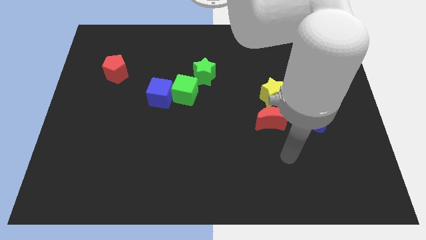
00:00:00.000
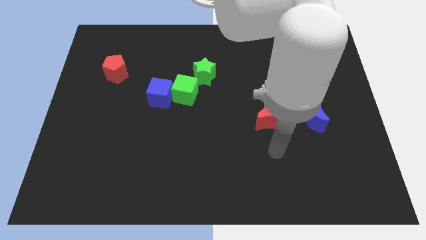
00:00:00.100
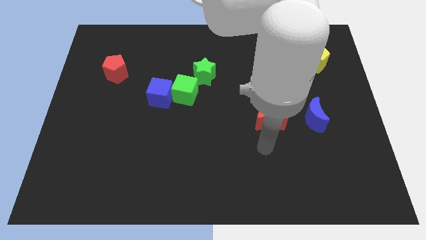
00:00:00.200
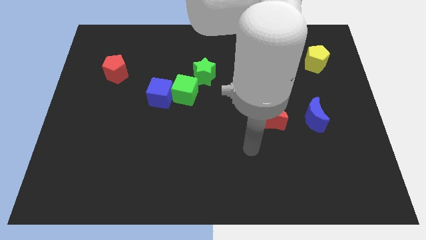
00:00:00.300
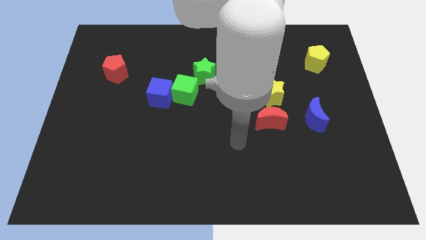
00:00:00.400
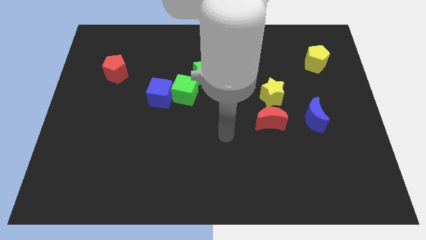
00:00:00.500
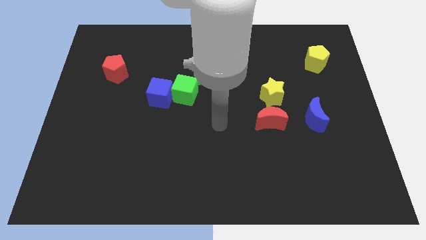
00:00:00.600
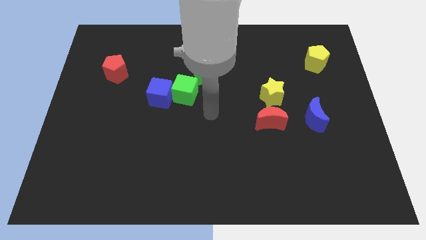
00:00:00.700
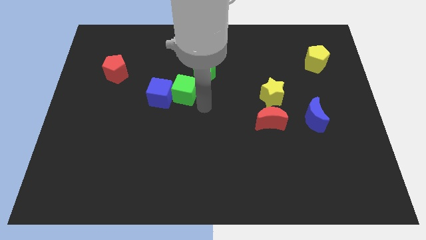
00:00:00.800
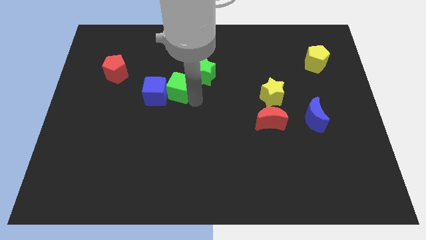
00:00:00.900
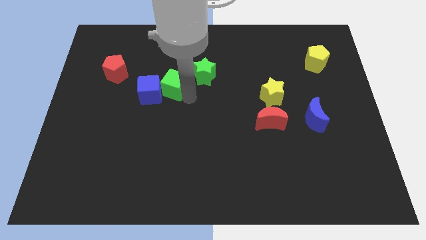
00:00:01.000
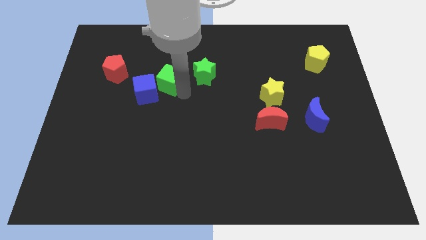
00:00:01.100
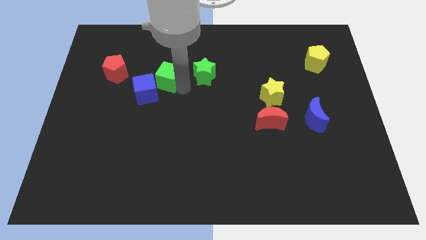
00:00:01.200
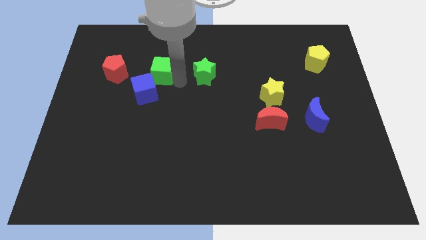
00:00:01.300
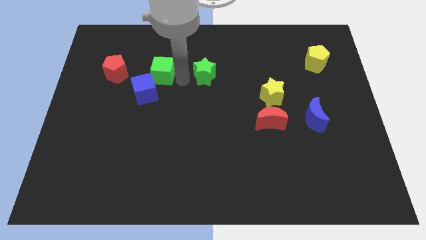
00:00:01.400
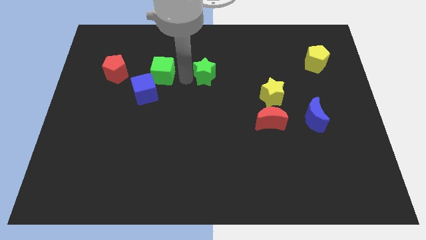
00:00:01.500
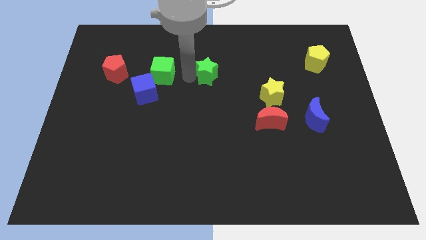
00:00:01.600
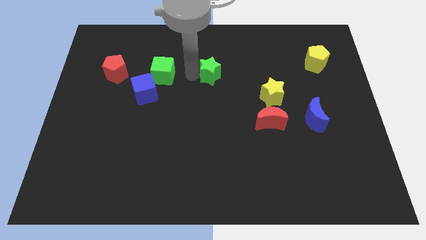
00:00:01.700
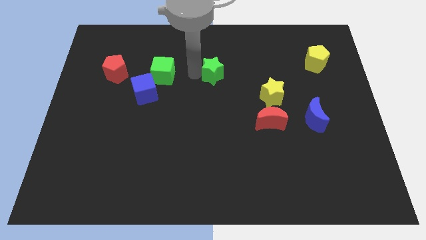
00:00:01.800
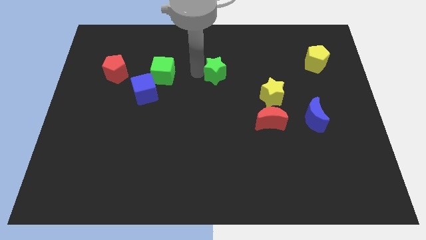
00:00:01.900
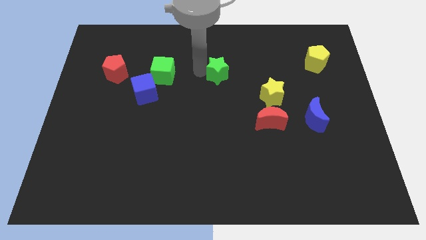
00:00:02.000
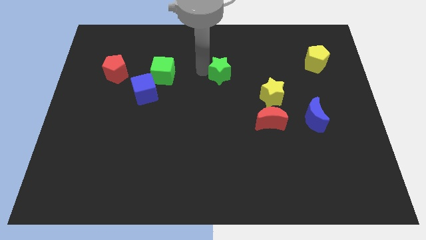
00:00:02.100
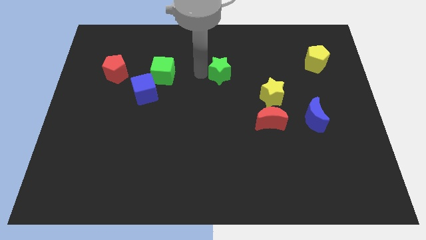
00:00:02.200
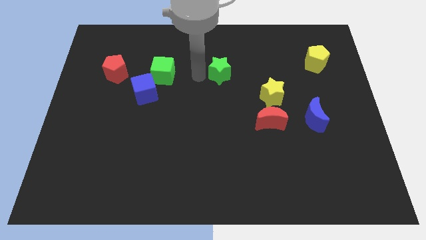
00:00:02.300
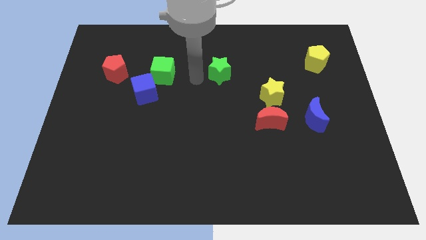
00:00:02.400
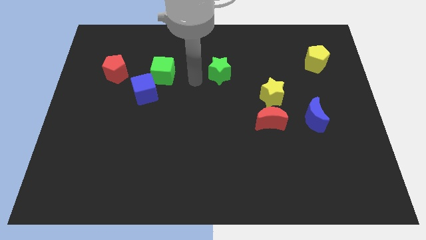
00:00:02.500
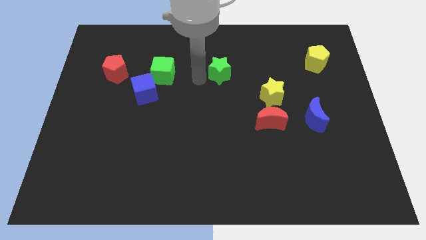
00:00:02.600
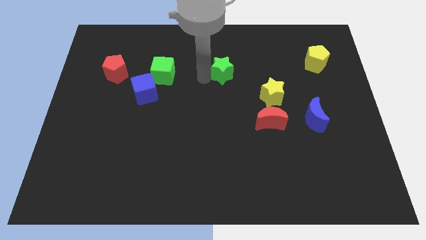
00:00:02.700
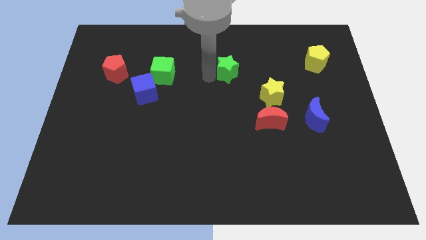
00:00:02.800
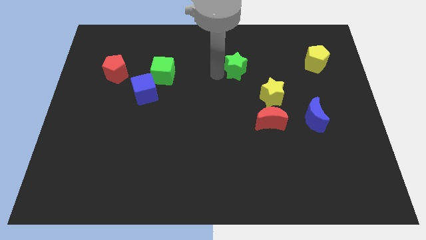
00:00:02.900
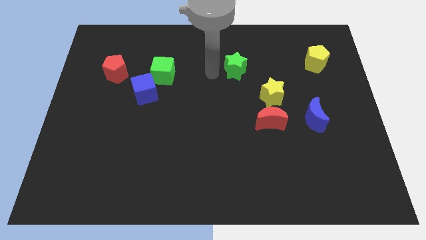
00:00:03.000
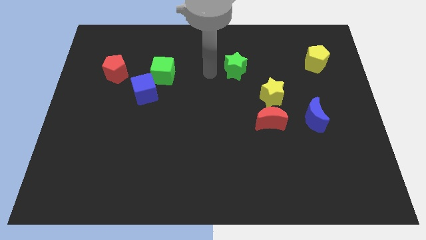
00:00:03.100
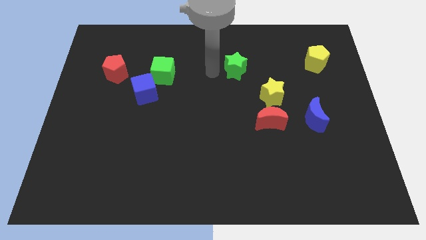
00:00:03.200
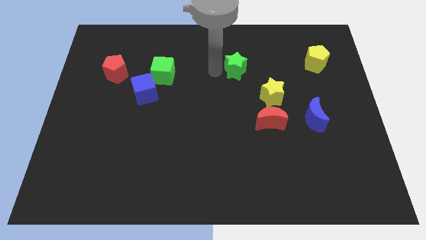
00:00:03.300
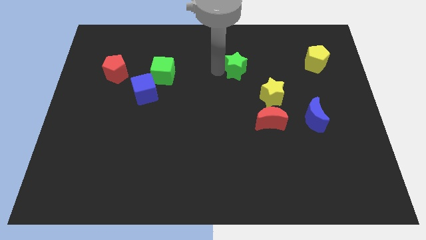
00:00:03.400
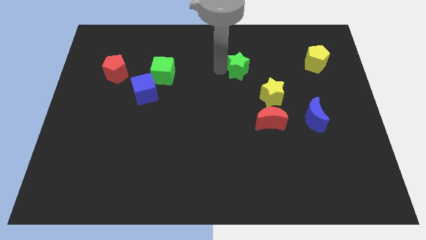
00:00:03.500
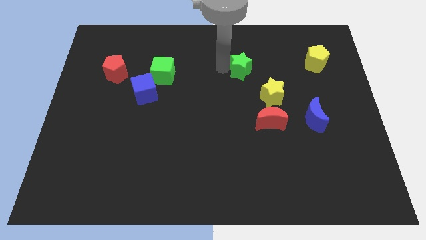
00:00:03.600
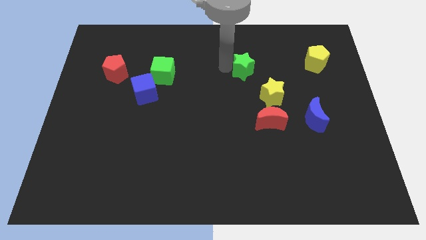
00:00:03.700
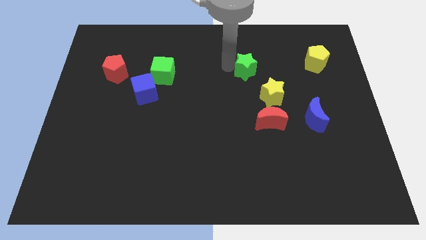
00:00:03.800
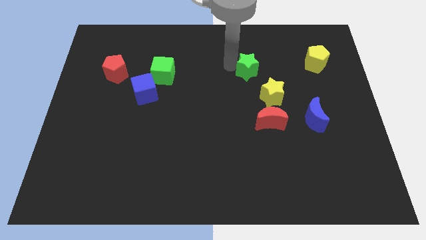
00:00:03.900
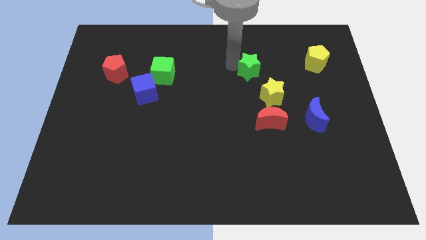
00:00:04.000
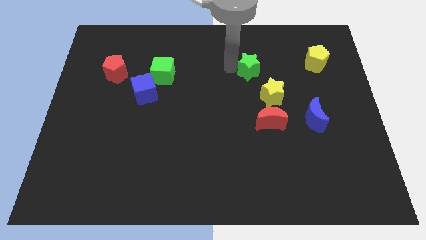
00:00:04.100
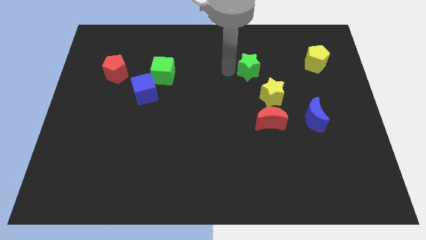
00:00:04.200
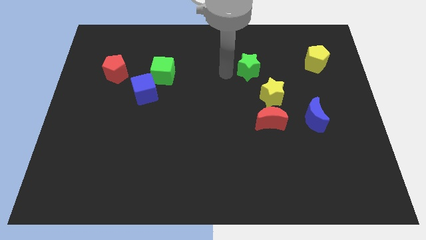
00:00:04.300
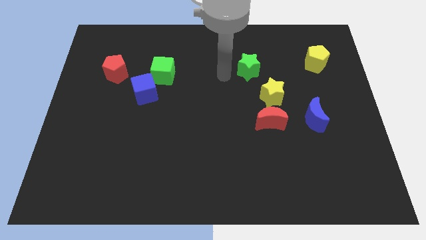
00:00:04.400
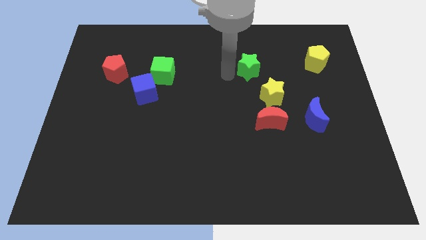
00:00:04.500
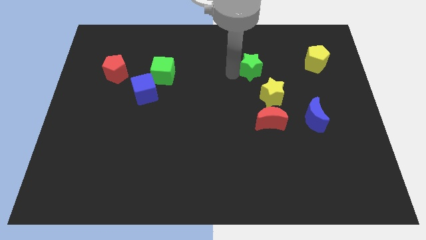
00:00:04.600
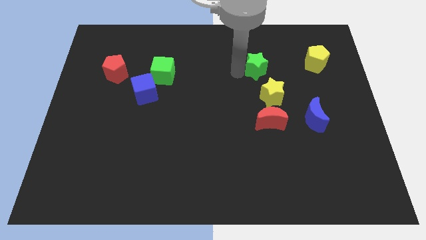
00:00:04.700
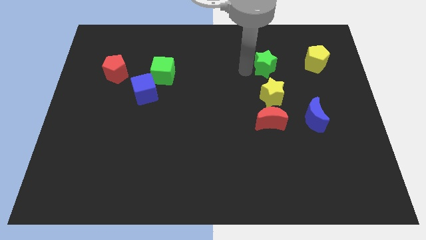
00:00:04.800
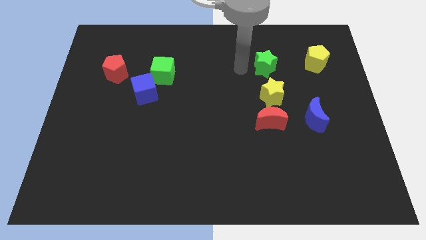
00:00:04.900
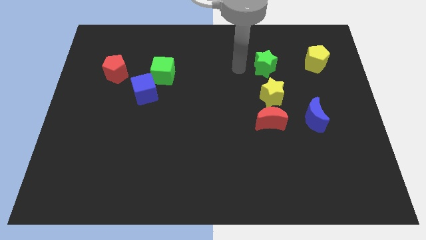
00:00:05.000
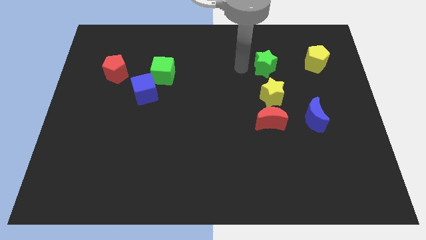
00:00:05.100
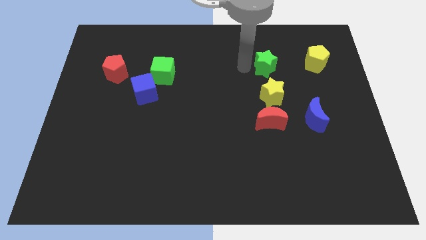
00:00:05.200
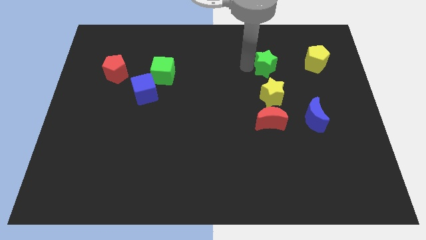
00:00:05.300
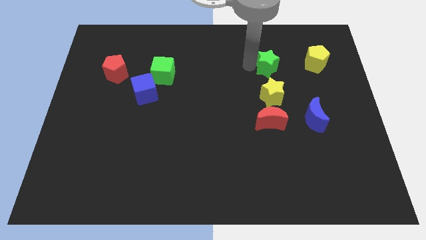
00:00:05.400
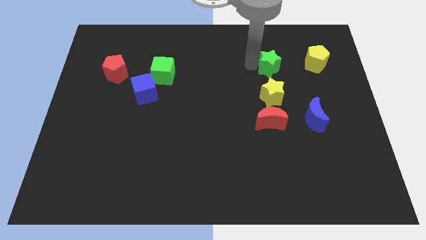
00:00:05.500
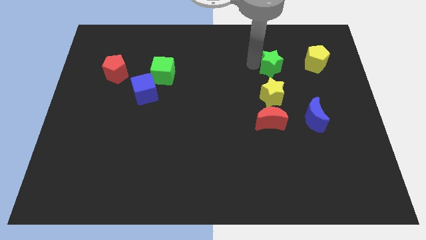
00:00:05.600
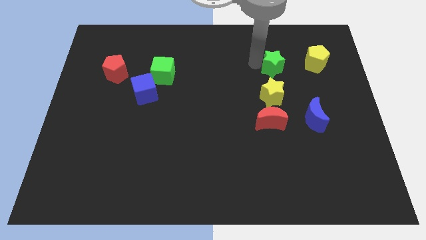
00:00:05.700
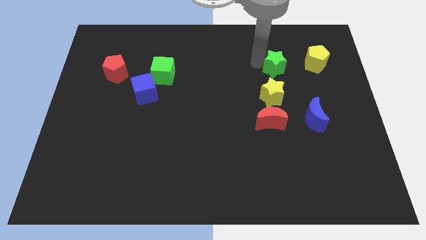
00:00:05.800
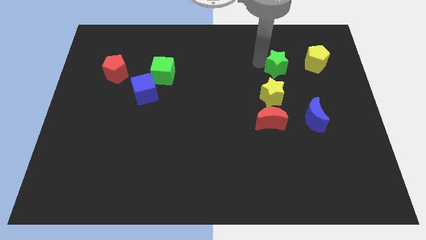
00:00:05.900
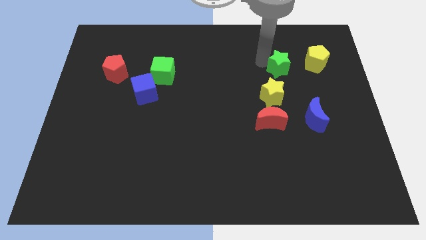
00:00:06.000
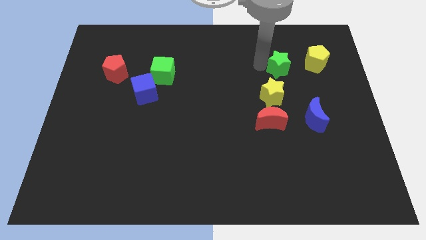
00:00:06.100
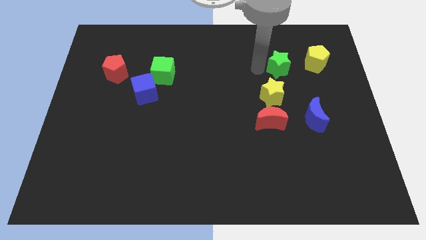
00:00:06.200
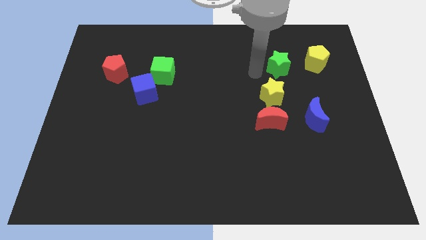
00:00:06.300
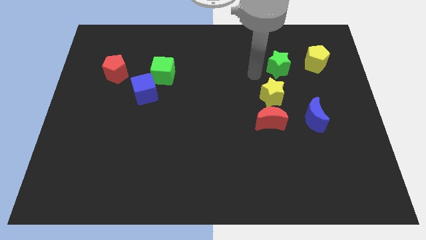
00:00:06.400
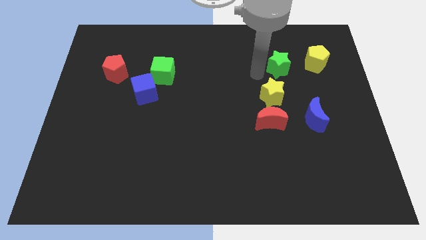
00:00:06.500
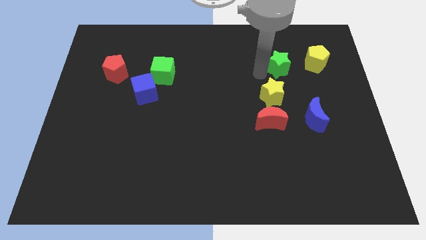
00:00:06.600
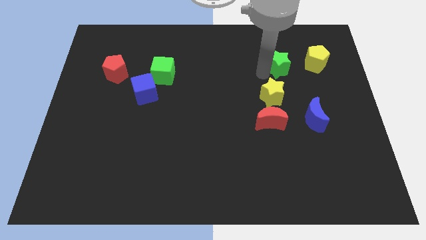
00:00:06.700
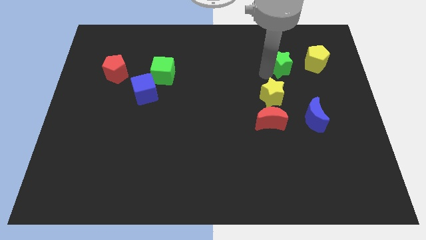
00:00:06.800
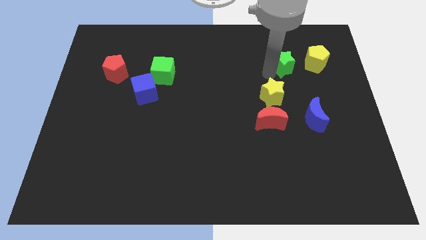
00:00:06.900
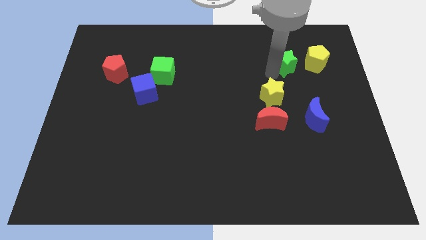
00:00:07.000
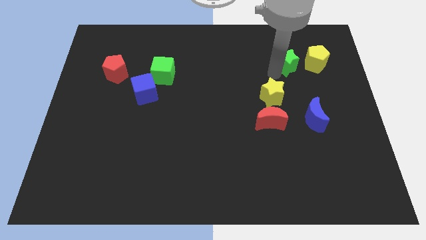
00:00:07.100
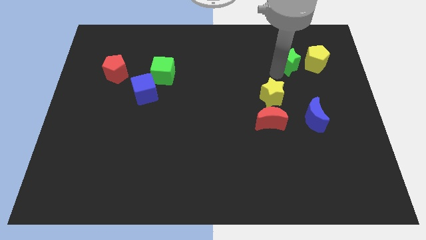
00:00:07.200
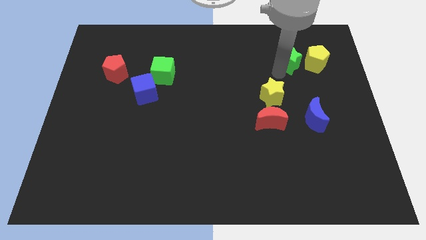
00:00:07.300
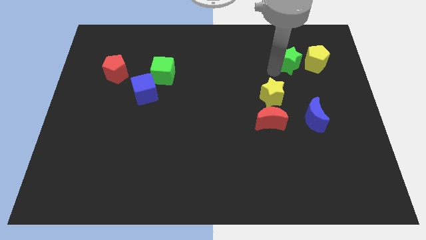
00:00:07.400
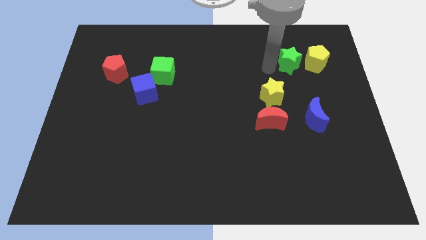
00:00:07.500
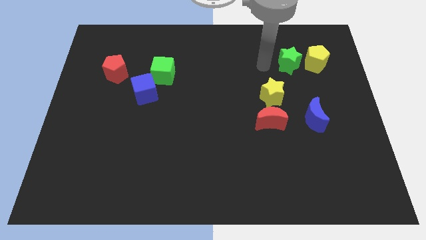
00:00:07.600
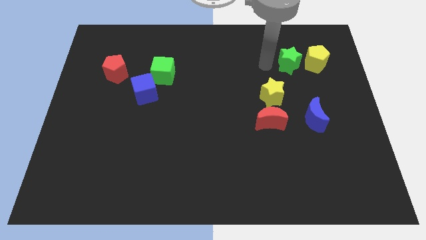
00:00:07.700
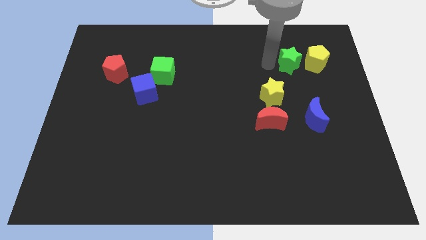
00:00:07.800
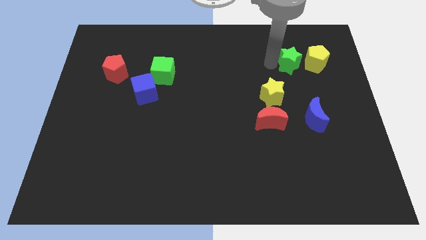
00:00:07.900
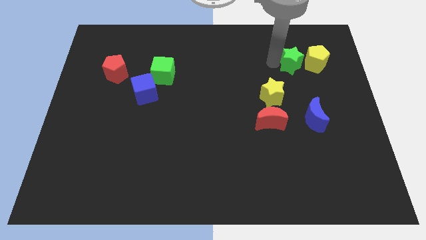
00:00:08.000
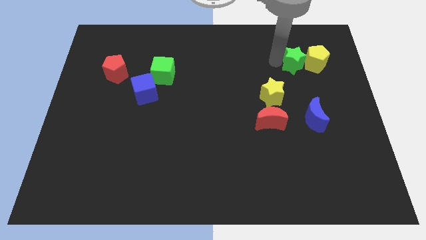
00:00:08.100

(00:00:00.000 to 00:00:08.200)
slide the green star to the yellow pentagon
